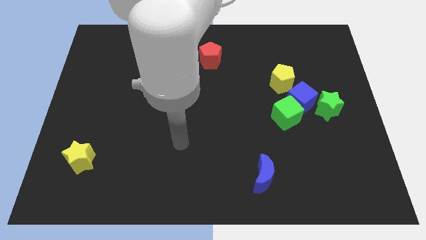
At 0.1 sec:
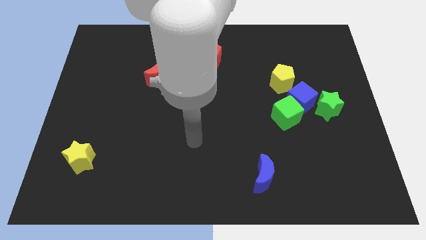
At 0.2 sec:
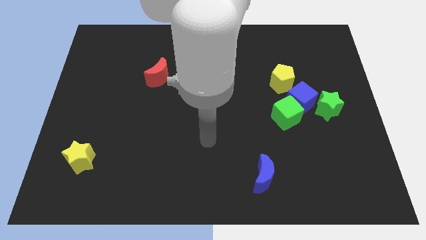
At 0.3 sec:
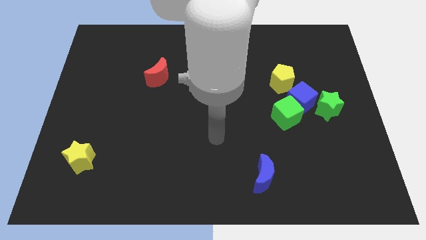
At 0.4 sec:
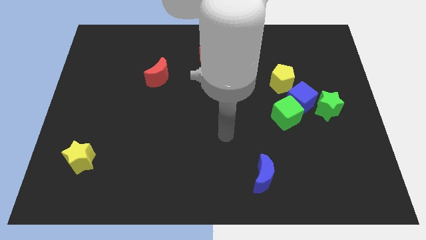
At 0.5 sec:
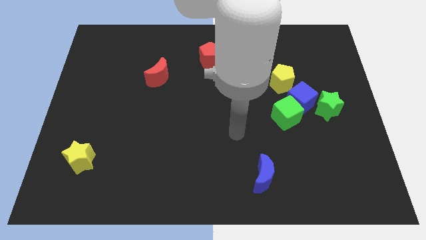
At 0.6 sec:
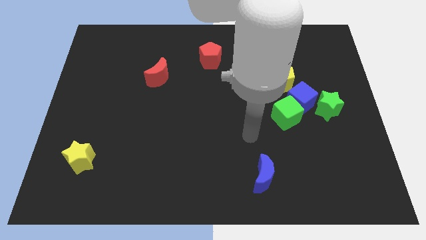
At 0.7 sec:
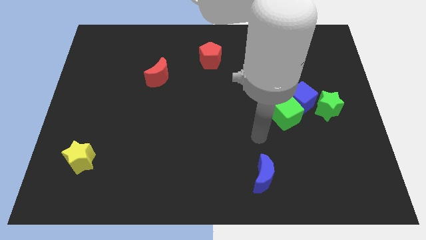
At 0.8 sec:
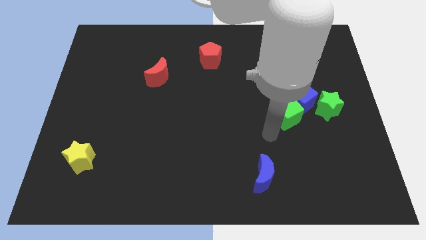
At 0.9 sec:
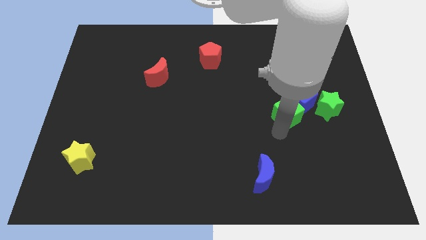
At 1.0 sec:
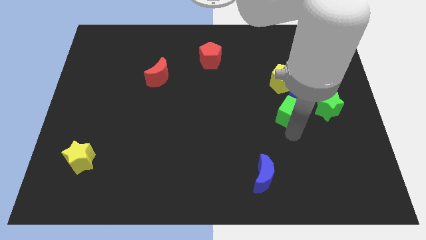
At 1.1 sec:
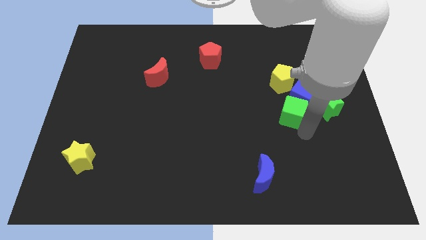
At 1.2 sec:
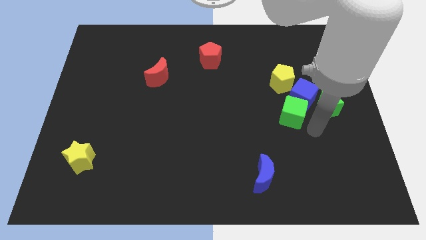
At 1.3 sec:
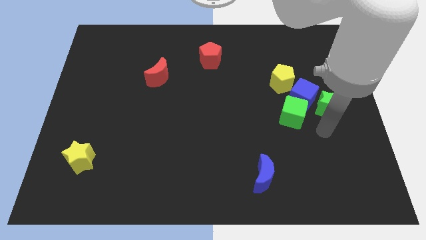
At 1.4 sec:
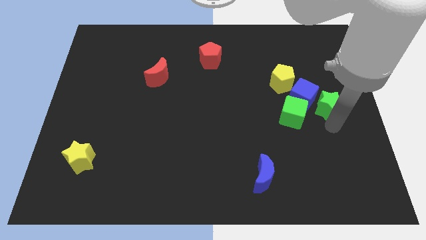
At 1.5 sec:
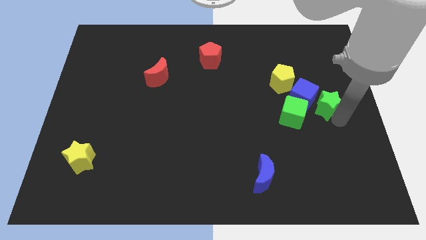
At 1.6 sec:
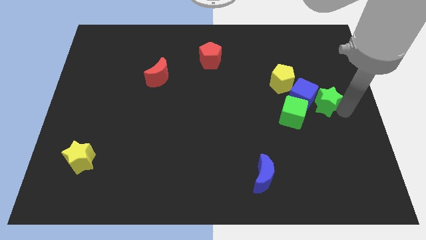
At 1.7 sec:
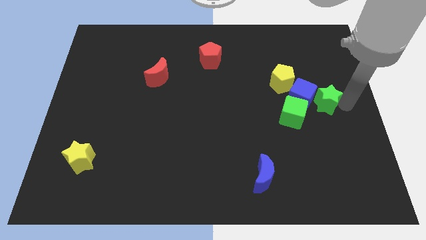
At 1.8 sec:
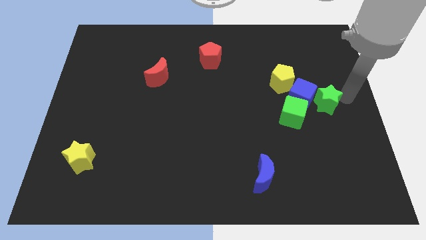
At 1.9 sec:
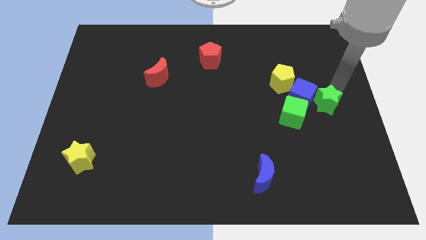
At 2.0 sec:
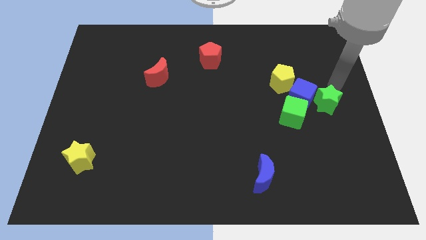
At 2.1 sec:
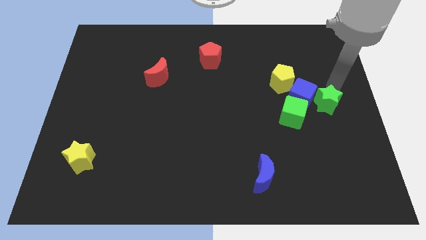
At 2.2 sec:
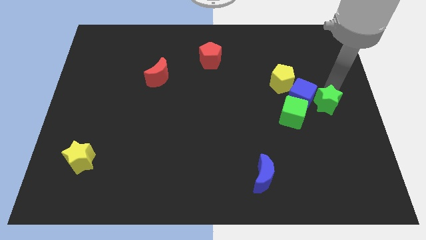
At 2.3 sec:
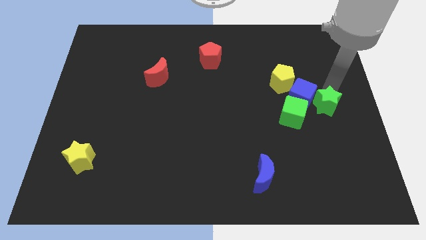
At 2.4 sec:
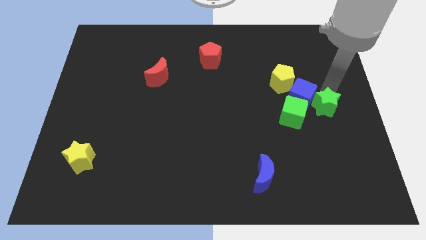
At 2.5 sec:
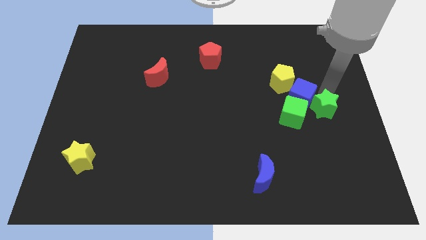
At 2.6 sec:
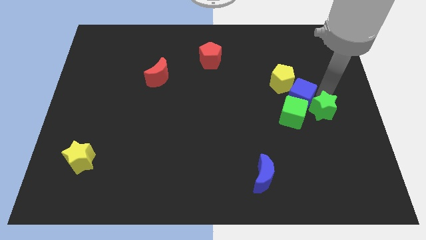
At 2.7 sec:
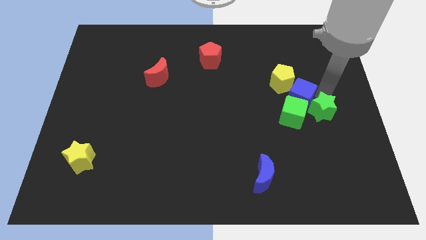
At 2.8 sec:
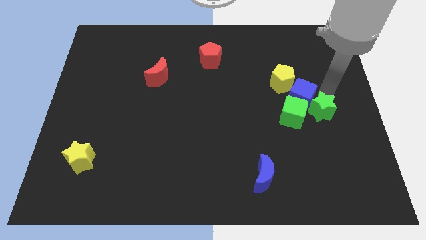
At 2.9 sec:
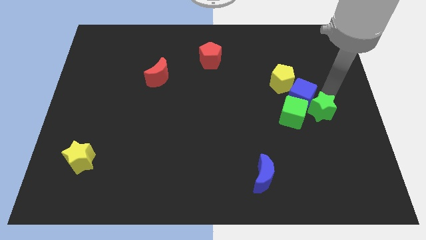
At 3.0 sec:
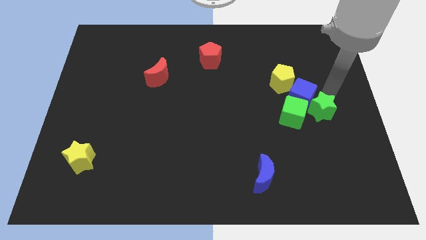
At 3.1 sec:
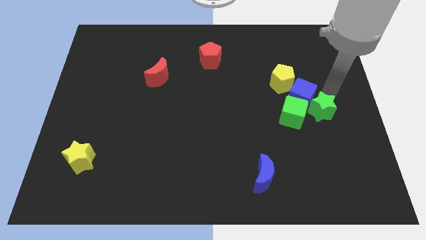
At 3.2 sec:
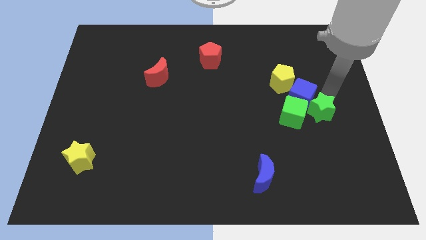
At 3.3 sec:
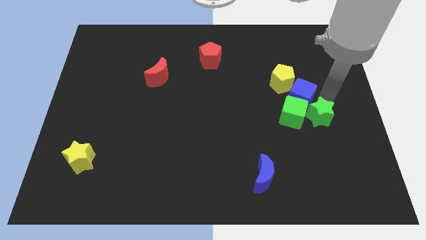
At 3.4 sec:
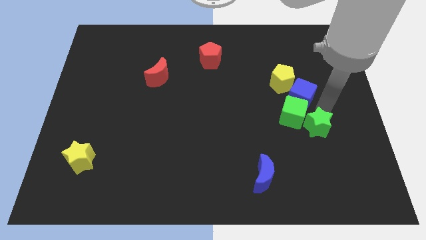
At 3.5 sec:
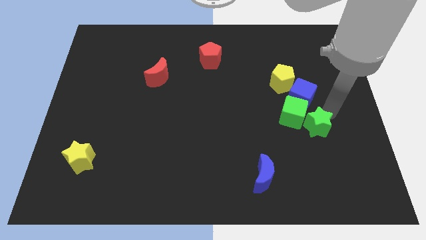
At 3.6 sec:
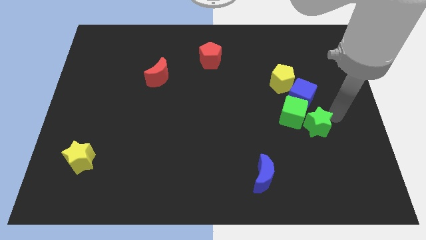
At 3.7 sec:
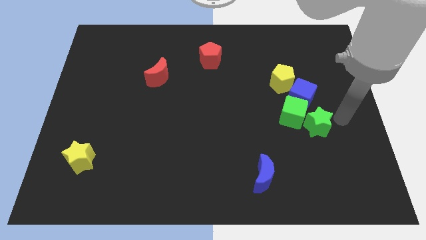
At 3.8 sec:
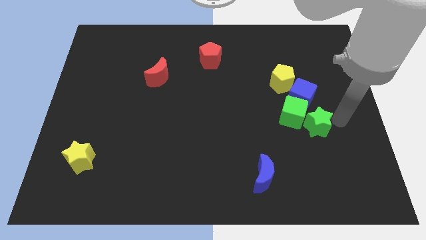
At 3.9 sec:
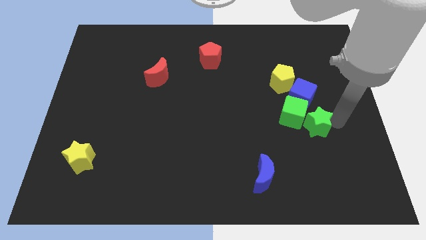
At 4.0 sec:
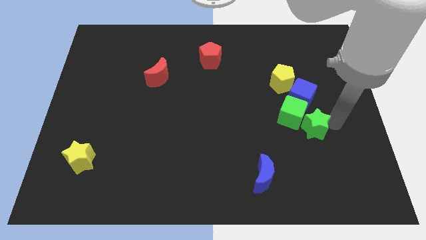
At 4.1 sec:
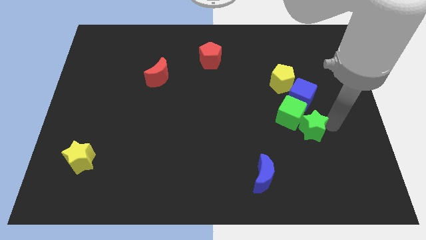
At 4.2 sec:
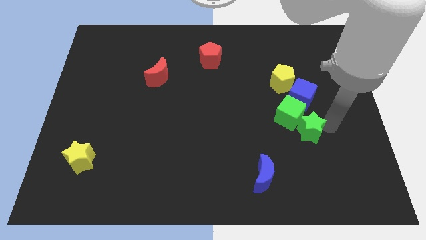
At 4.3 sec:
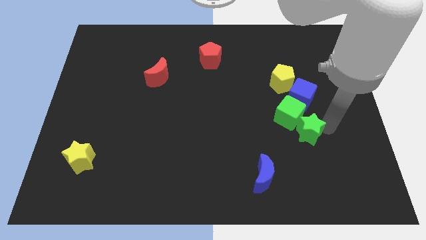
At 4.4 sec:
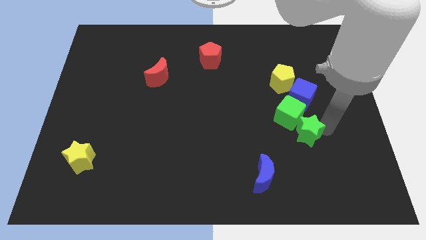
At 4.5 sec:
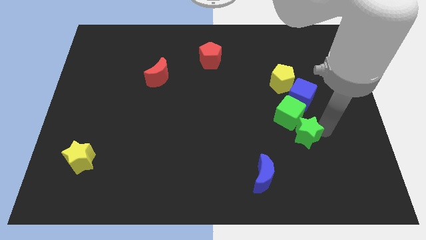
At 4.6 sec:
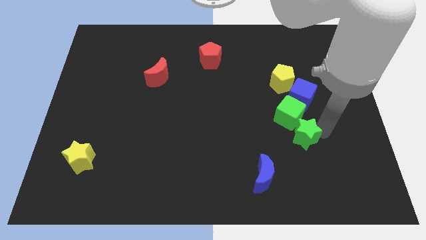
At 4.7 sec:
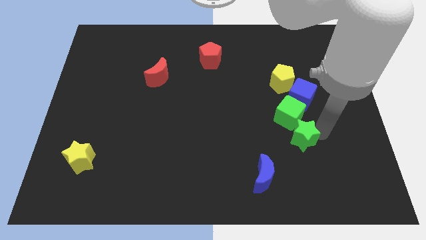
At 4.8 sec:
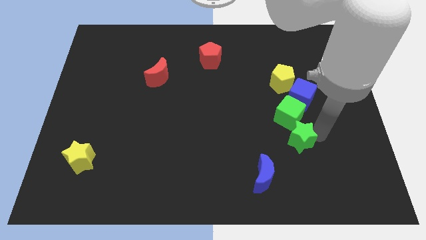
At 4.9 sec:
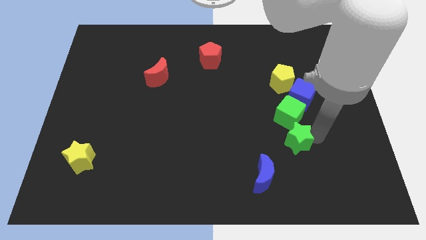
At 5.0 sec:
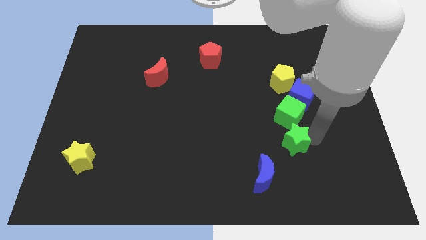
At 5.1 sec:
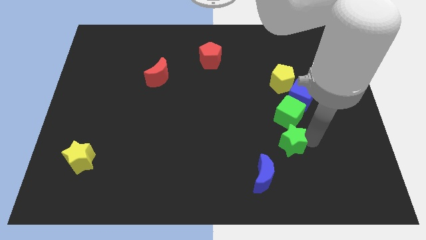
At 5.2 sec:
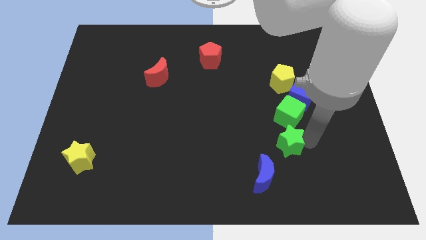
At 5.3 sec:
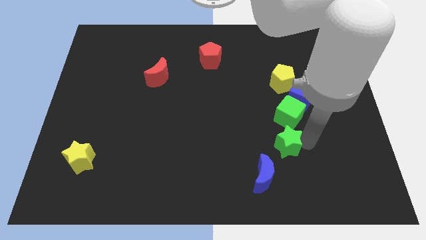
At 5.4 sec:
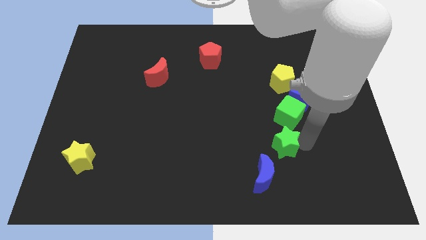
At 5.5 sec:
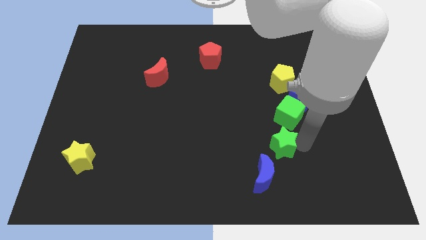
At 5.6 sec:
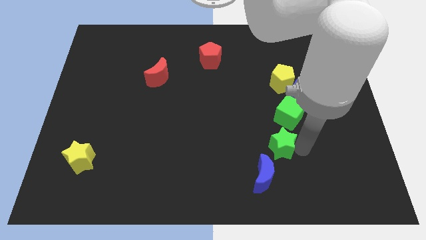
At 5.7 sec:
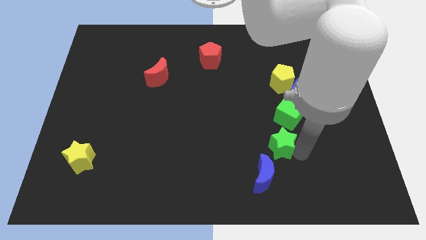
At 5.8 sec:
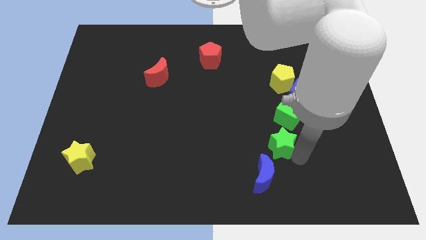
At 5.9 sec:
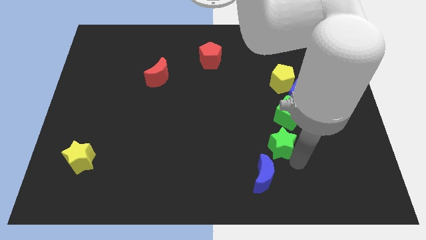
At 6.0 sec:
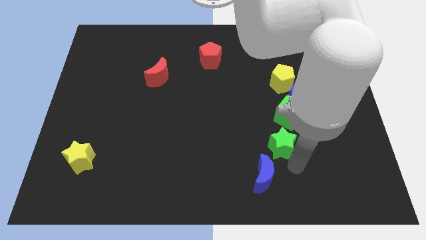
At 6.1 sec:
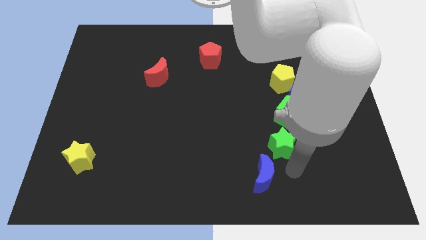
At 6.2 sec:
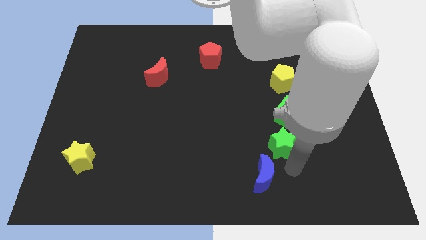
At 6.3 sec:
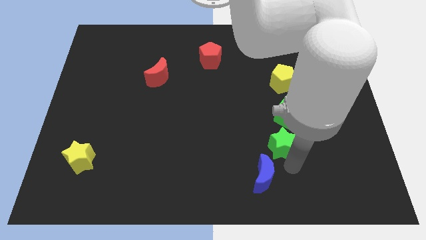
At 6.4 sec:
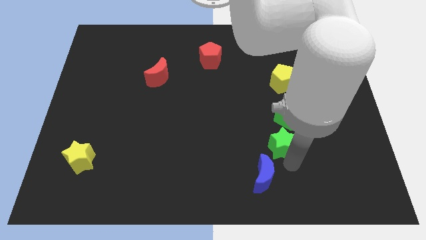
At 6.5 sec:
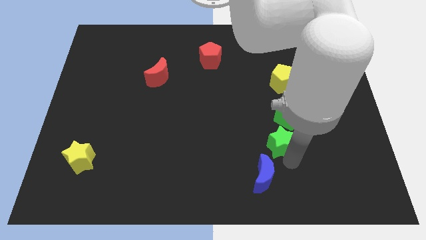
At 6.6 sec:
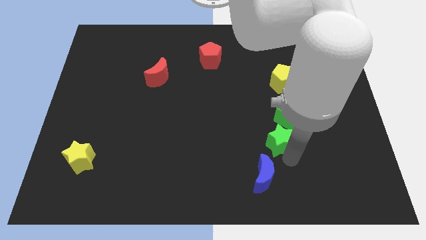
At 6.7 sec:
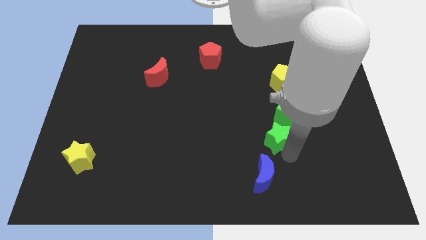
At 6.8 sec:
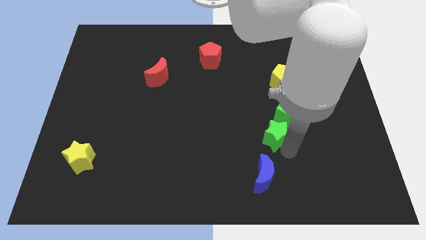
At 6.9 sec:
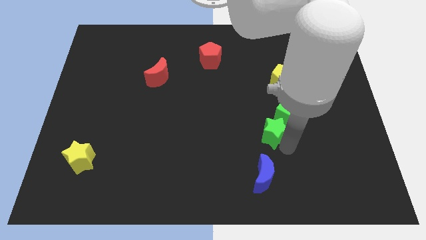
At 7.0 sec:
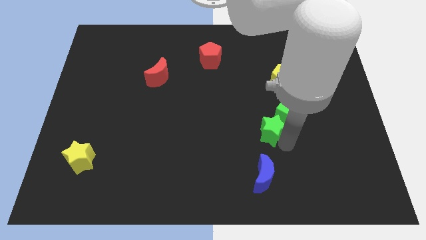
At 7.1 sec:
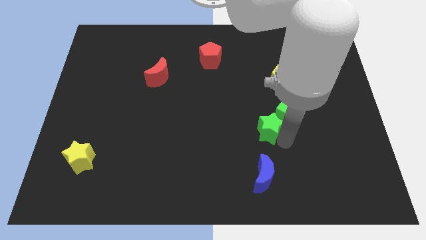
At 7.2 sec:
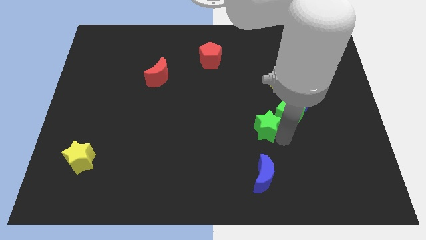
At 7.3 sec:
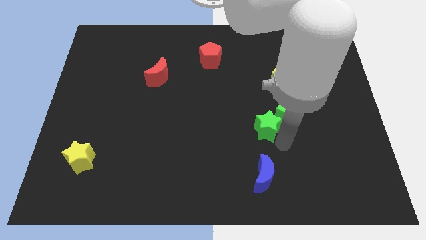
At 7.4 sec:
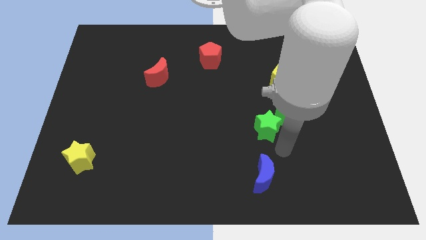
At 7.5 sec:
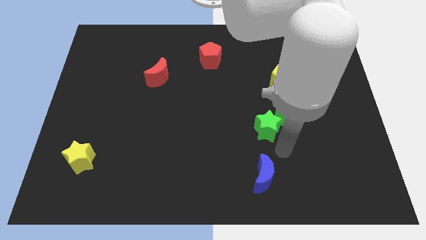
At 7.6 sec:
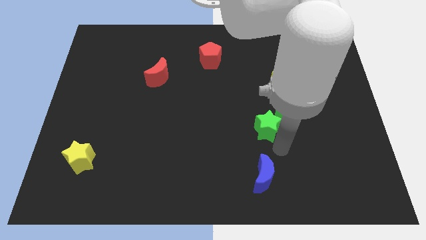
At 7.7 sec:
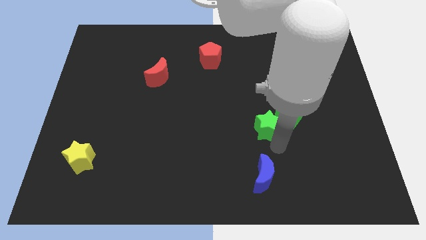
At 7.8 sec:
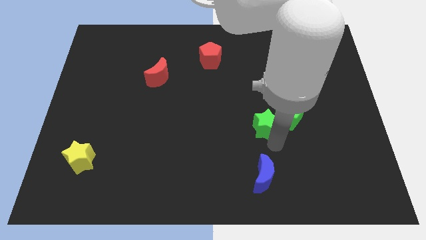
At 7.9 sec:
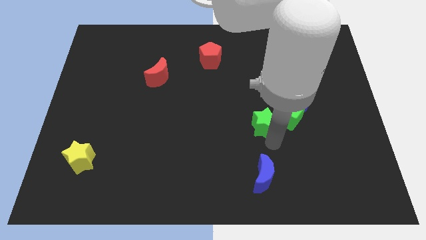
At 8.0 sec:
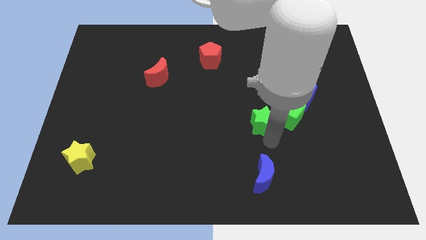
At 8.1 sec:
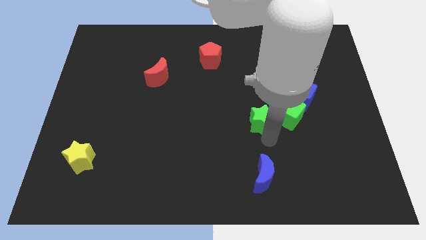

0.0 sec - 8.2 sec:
put the green star to the center of the board
